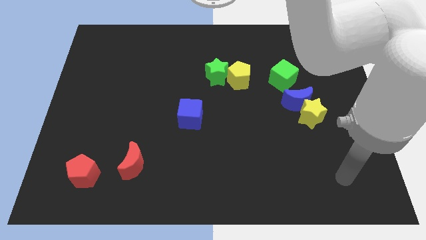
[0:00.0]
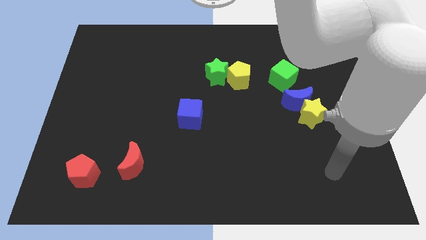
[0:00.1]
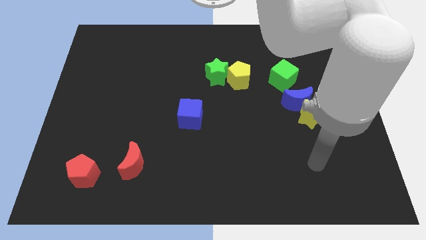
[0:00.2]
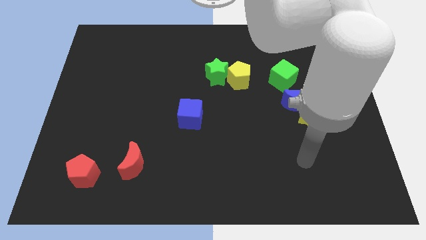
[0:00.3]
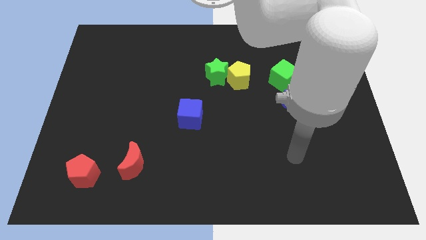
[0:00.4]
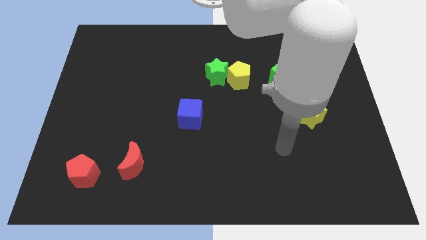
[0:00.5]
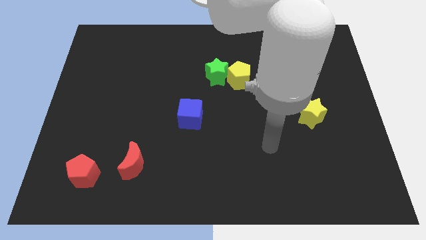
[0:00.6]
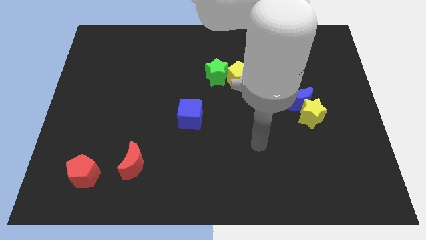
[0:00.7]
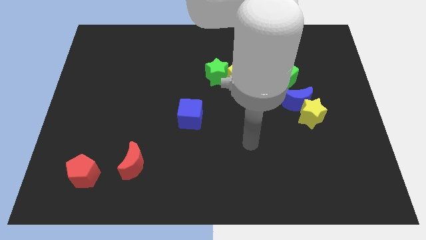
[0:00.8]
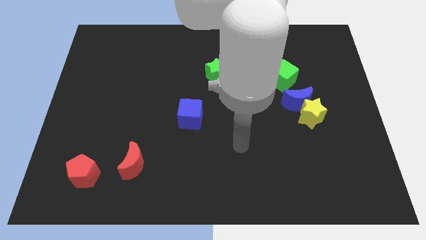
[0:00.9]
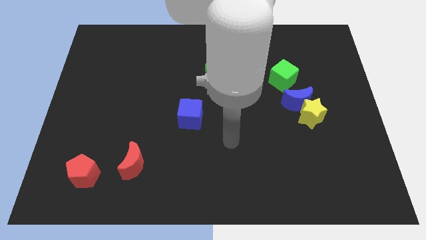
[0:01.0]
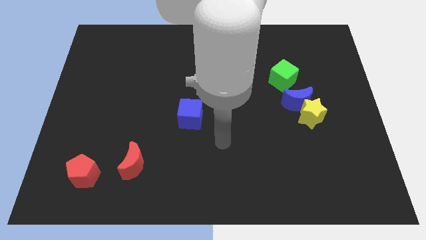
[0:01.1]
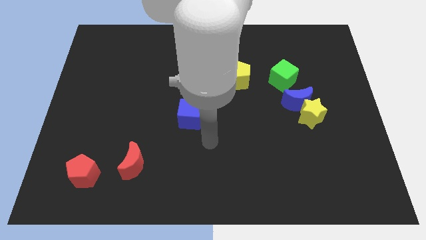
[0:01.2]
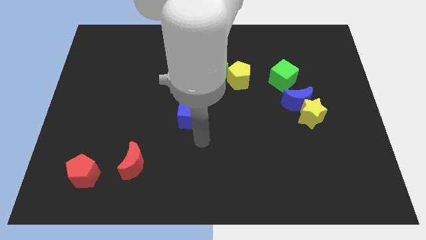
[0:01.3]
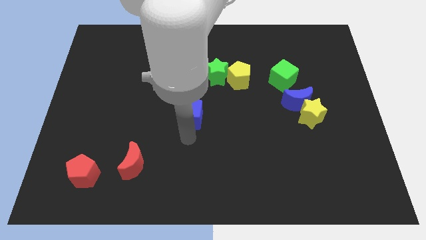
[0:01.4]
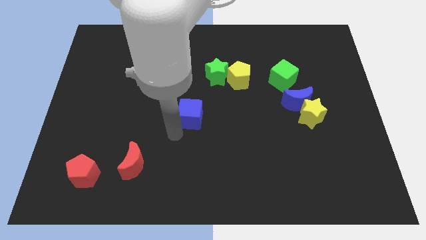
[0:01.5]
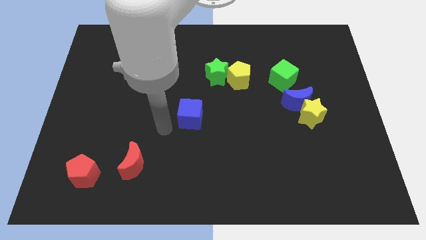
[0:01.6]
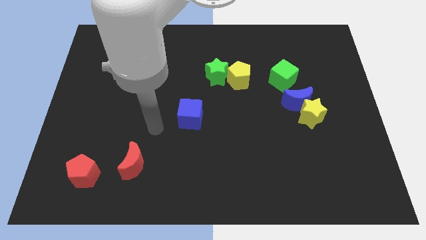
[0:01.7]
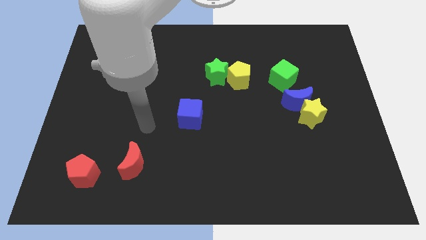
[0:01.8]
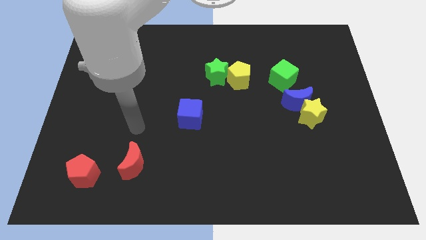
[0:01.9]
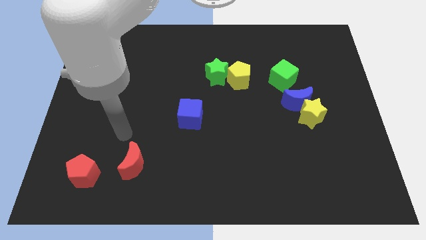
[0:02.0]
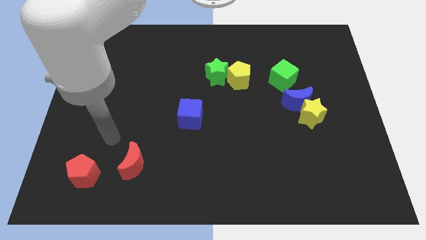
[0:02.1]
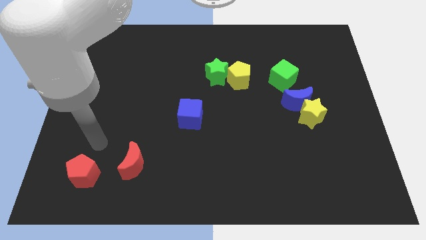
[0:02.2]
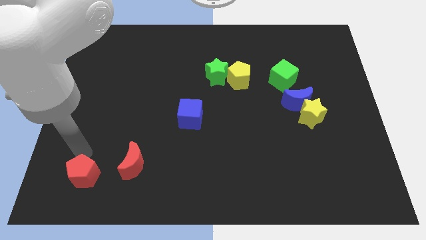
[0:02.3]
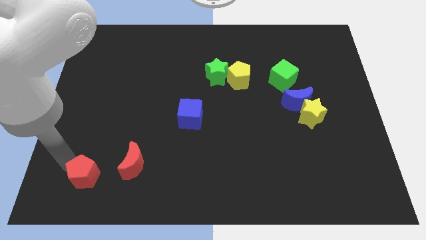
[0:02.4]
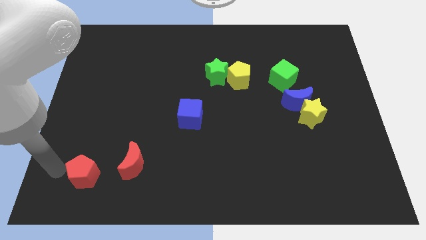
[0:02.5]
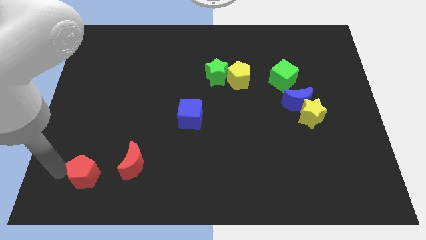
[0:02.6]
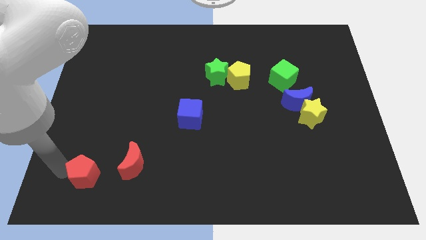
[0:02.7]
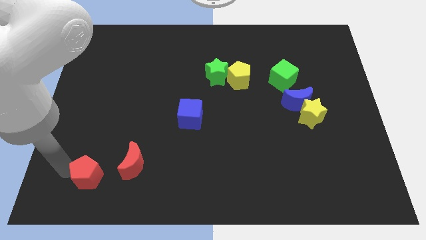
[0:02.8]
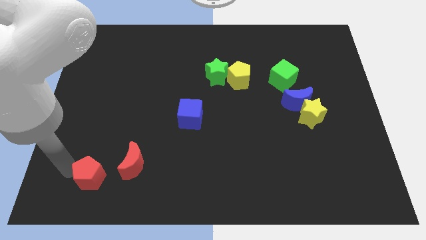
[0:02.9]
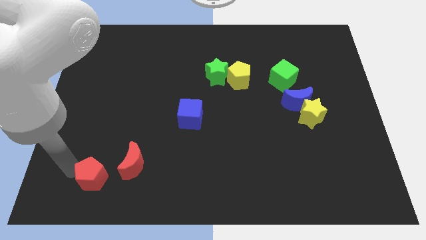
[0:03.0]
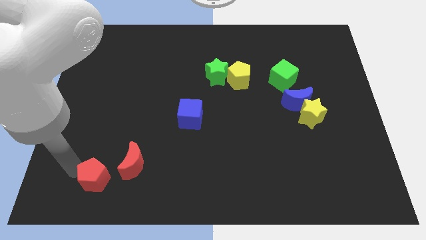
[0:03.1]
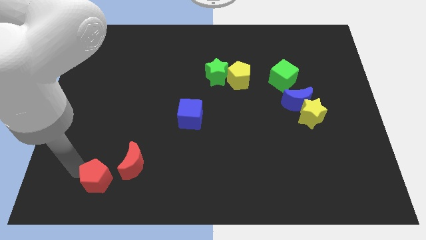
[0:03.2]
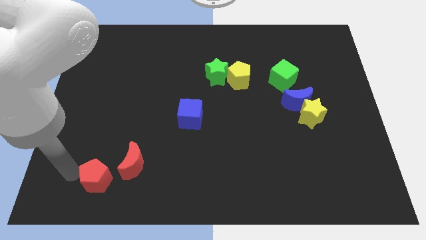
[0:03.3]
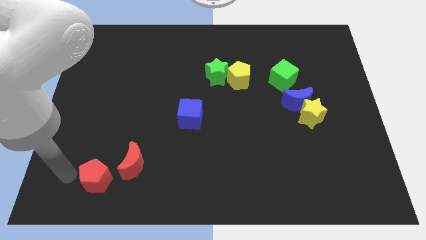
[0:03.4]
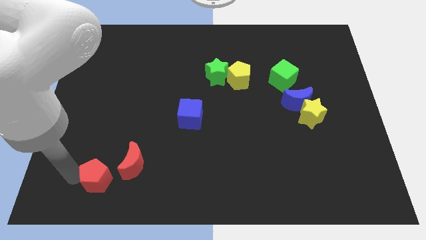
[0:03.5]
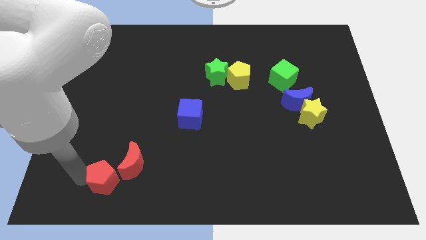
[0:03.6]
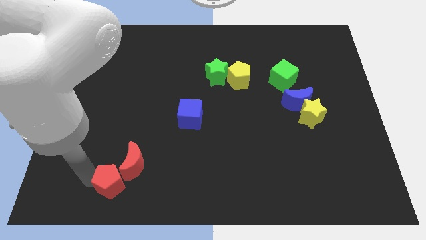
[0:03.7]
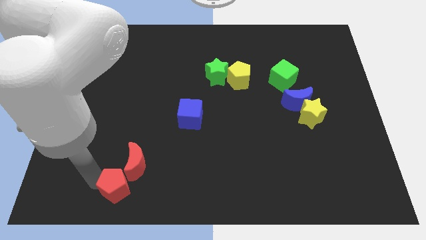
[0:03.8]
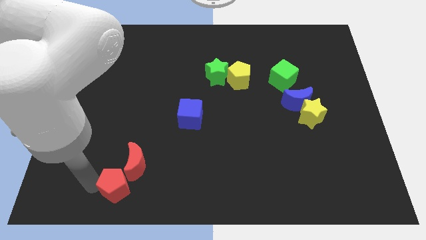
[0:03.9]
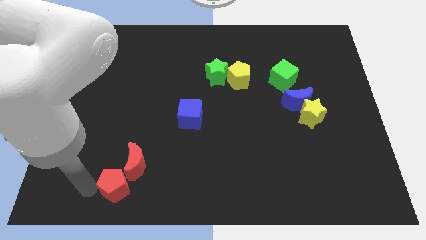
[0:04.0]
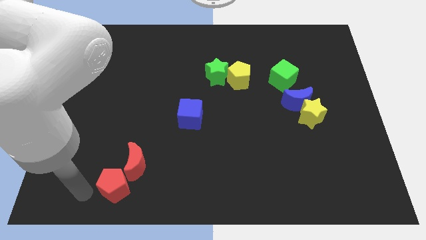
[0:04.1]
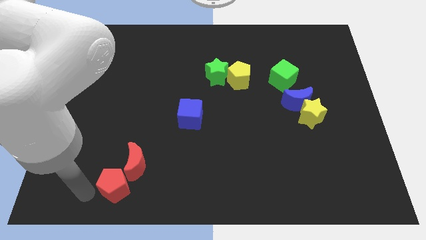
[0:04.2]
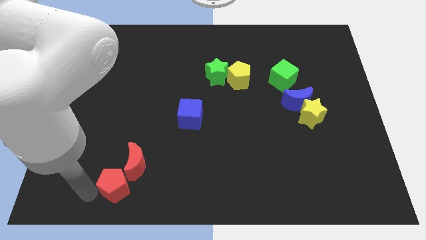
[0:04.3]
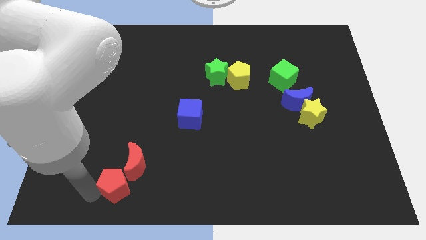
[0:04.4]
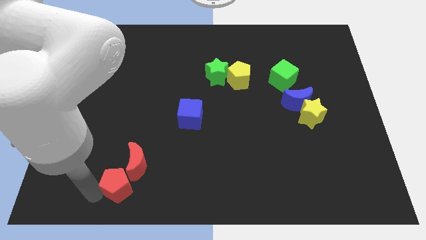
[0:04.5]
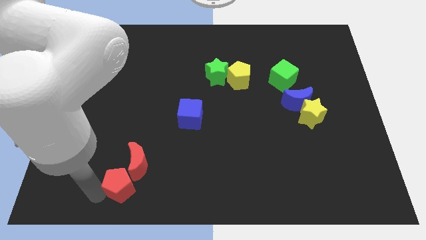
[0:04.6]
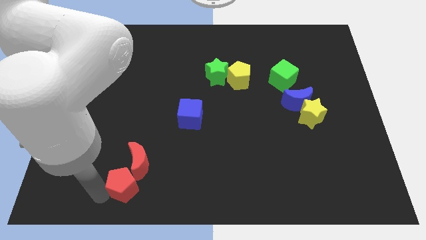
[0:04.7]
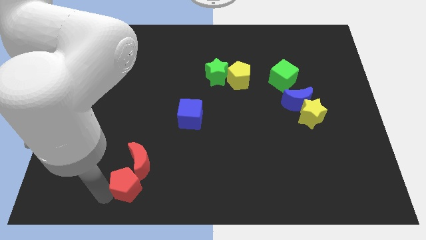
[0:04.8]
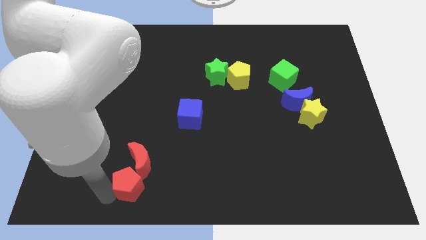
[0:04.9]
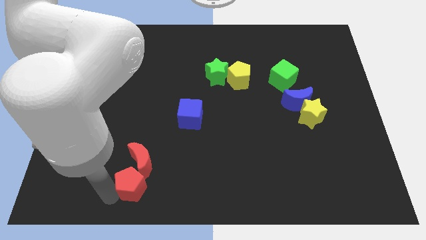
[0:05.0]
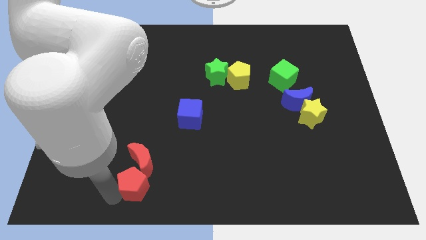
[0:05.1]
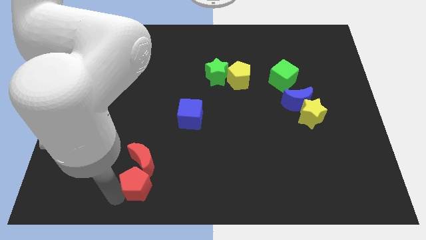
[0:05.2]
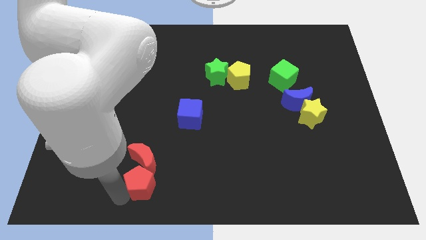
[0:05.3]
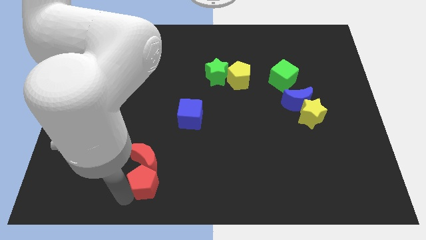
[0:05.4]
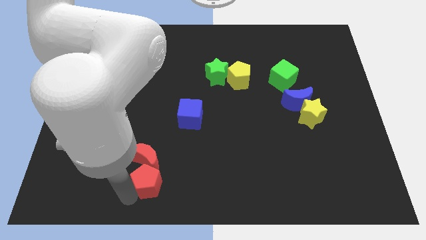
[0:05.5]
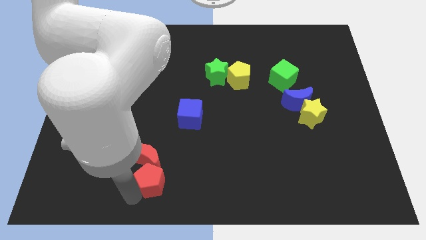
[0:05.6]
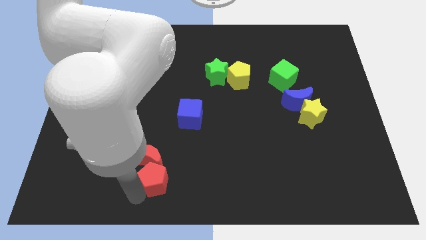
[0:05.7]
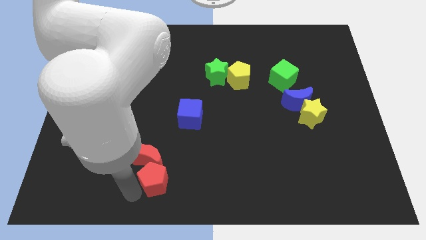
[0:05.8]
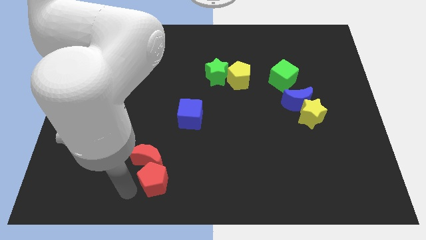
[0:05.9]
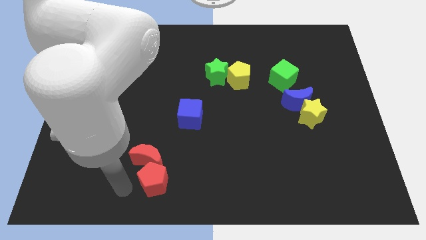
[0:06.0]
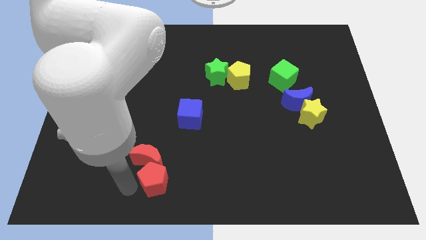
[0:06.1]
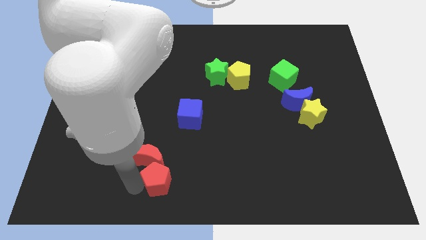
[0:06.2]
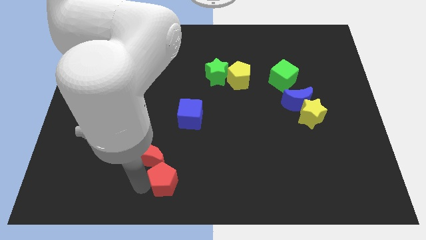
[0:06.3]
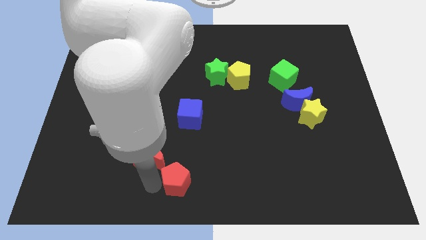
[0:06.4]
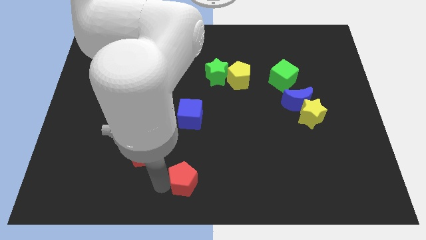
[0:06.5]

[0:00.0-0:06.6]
push the red pentagon right

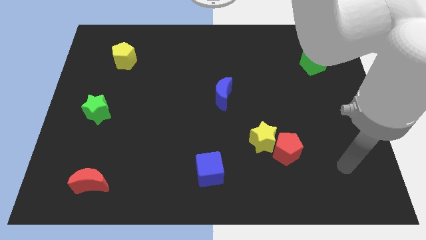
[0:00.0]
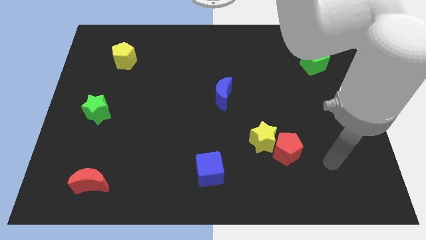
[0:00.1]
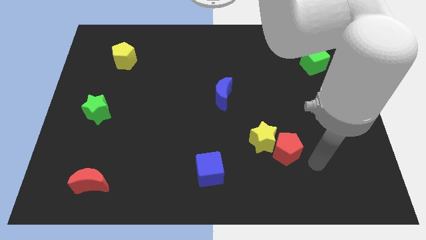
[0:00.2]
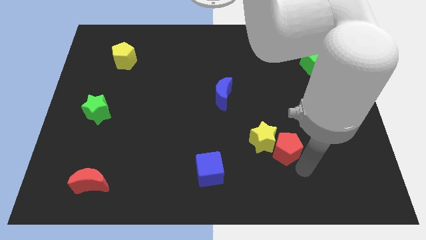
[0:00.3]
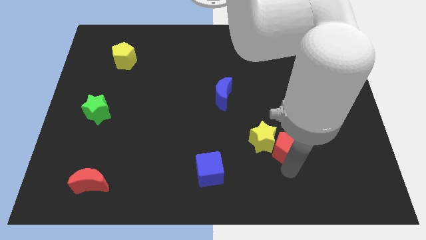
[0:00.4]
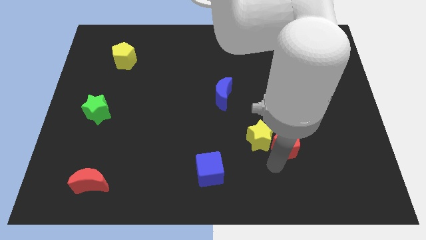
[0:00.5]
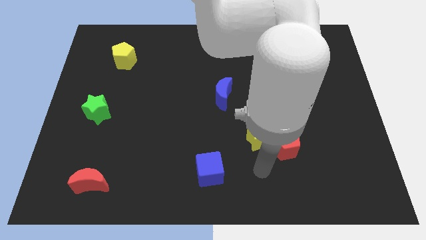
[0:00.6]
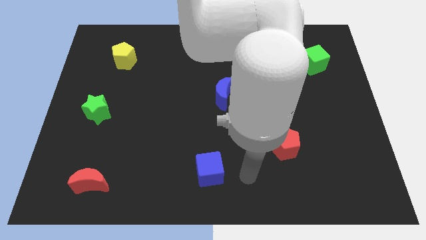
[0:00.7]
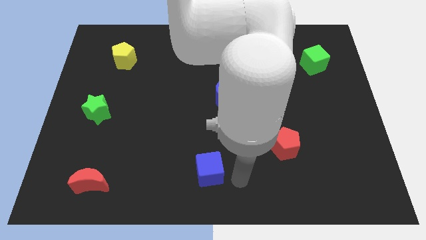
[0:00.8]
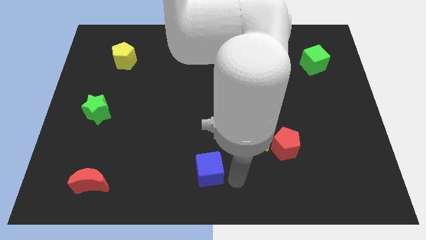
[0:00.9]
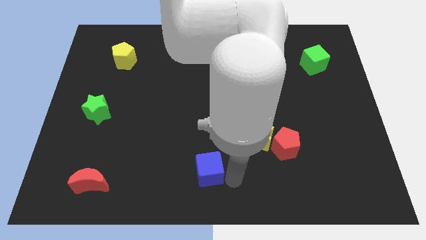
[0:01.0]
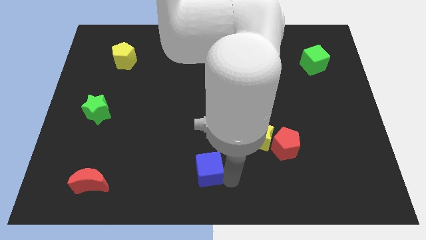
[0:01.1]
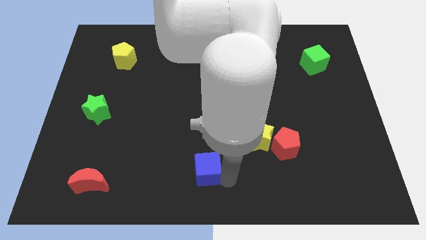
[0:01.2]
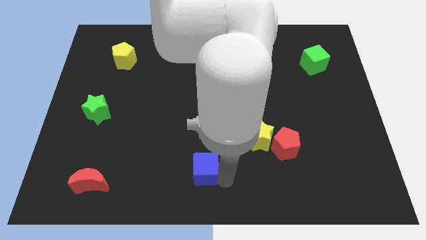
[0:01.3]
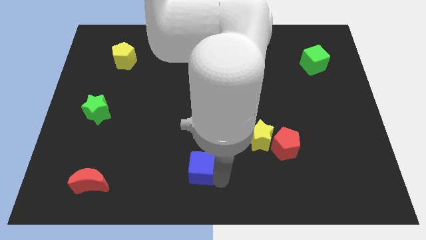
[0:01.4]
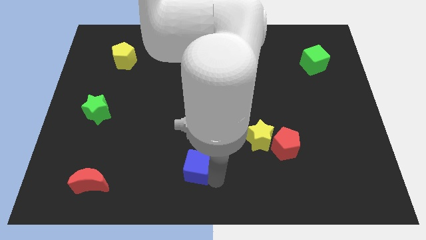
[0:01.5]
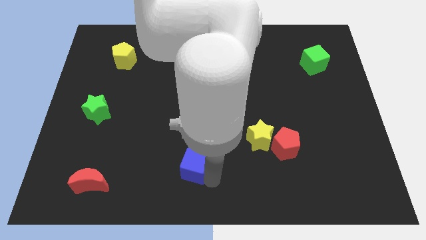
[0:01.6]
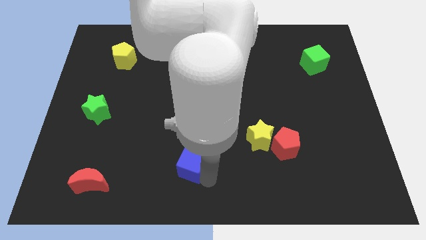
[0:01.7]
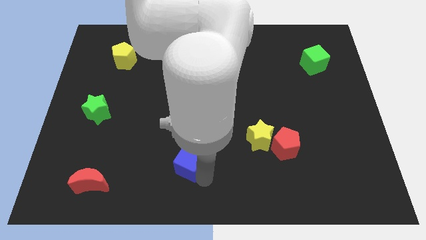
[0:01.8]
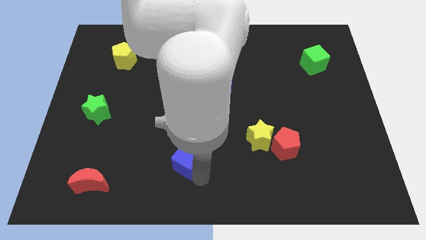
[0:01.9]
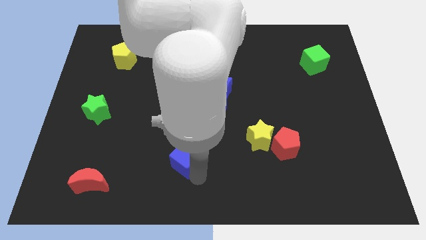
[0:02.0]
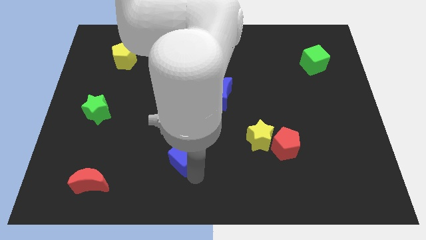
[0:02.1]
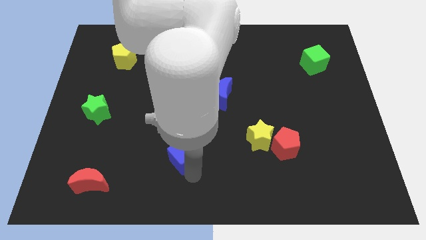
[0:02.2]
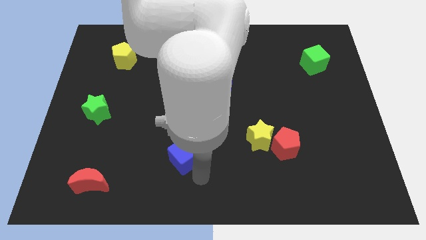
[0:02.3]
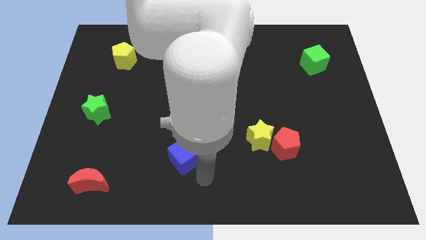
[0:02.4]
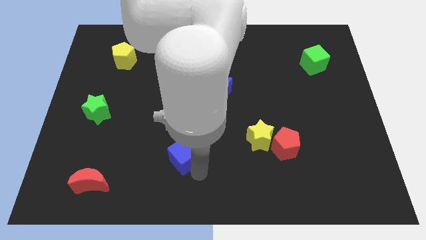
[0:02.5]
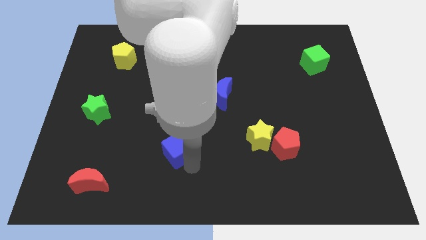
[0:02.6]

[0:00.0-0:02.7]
slightly push the blue cube up and then left
